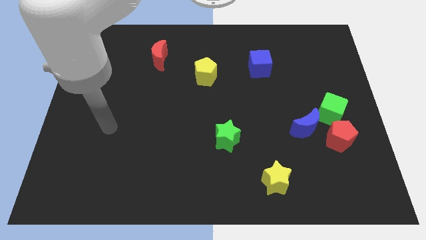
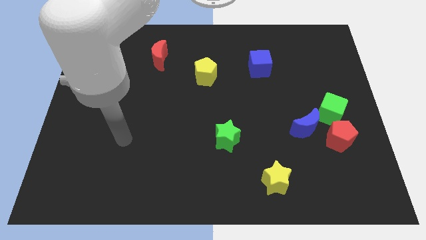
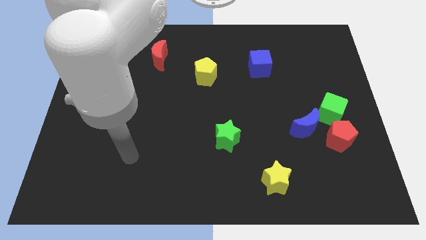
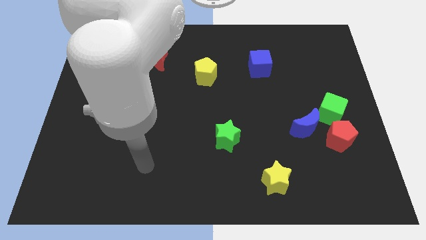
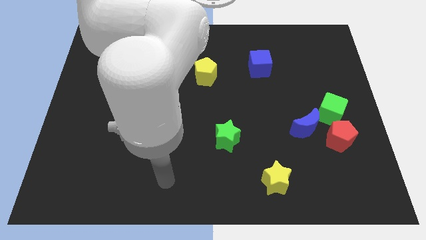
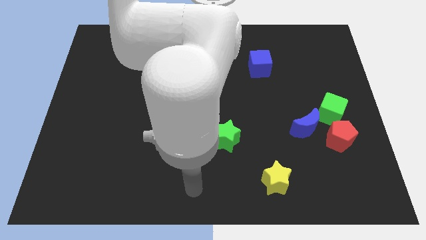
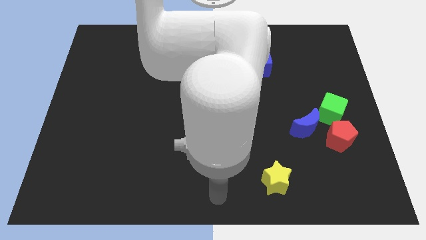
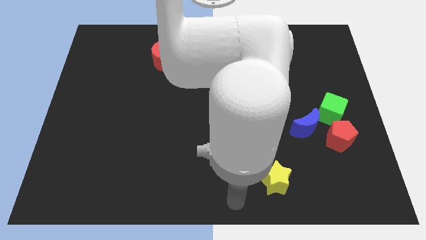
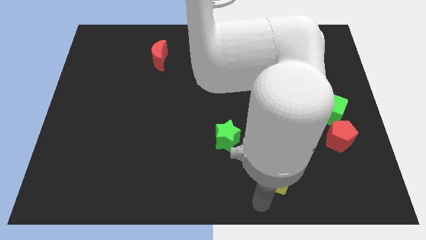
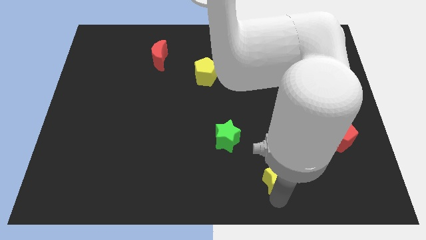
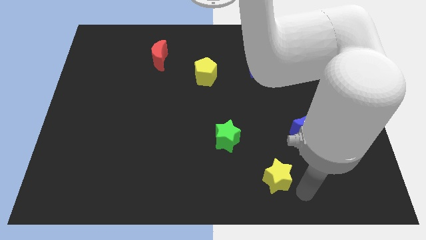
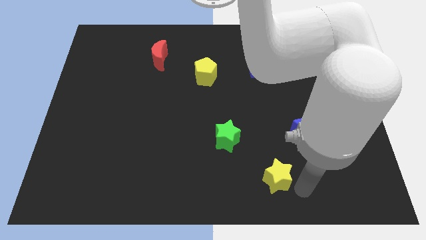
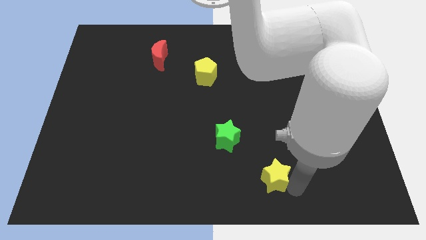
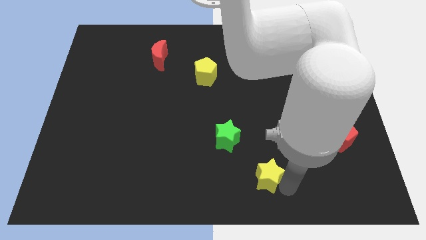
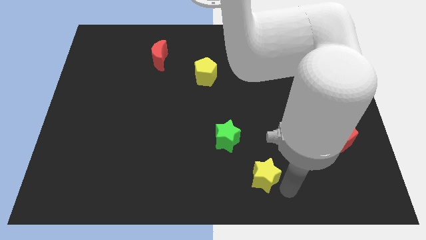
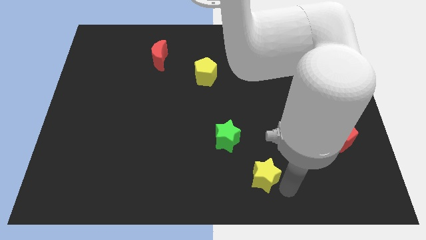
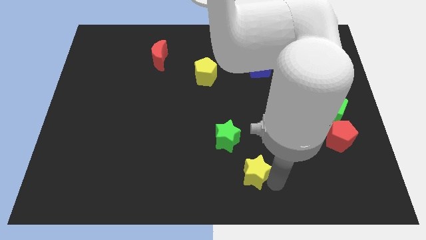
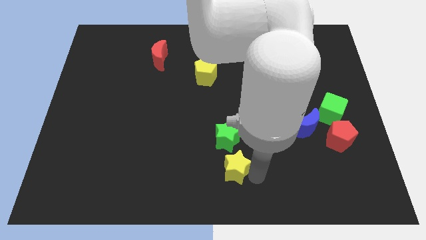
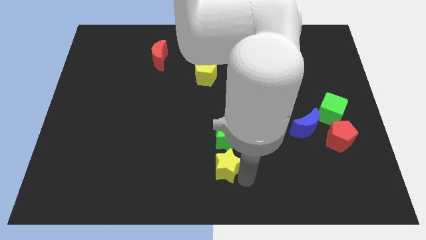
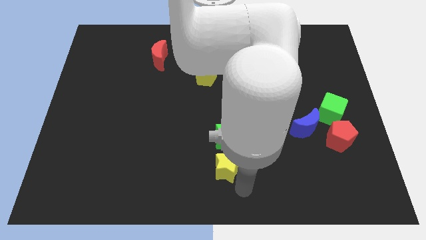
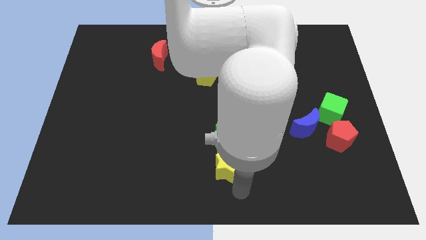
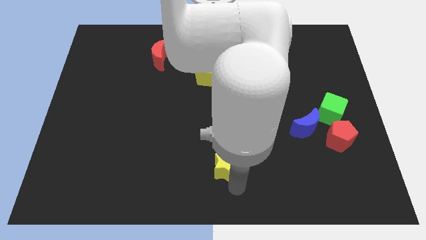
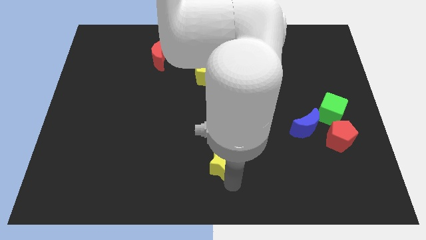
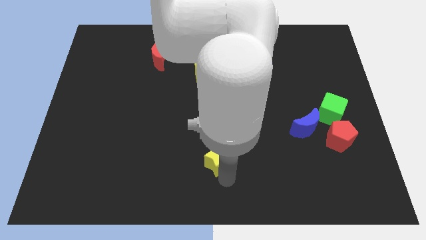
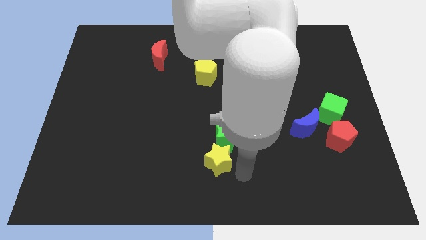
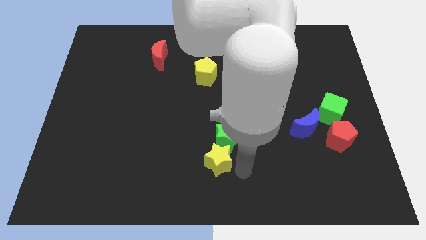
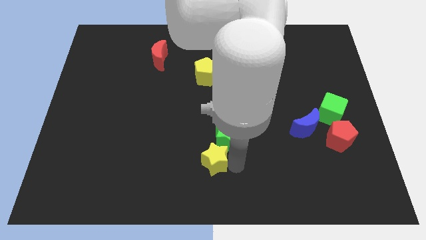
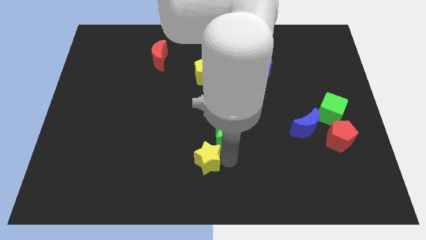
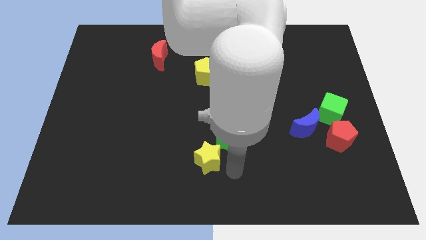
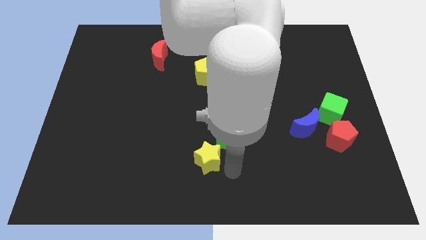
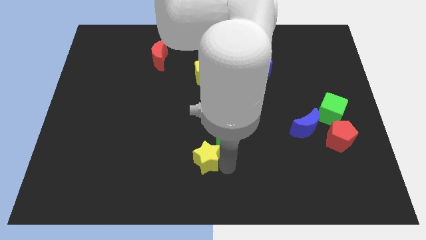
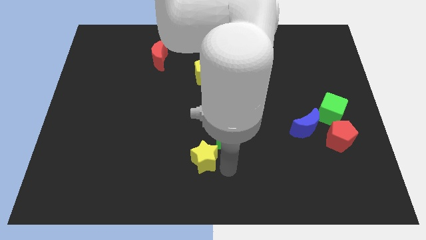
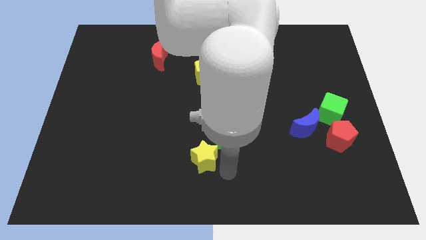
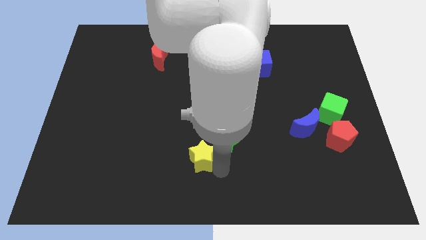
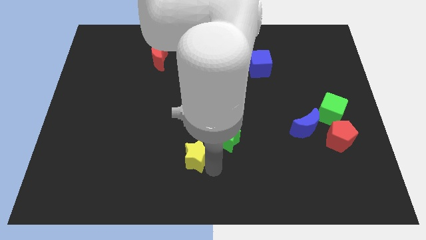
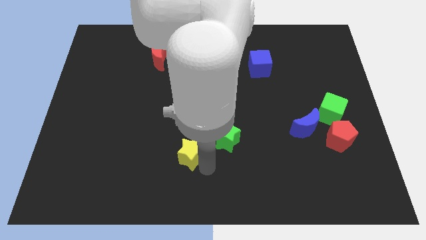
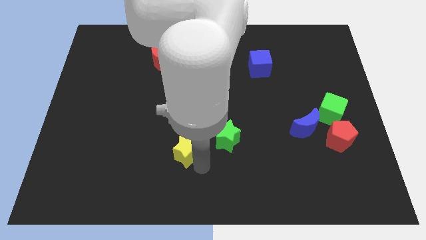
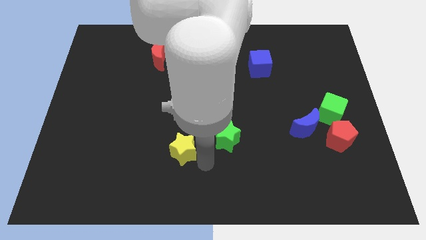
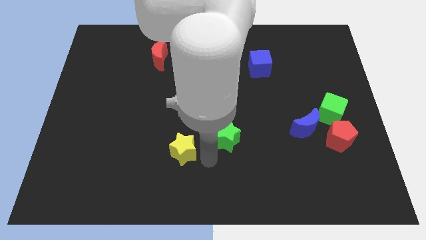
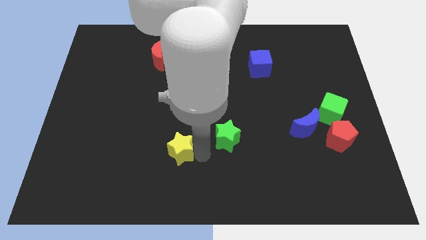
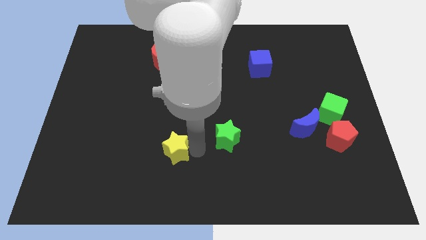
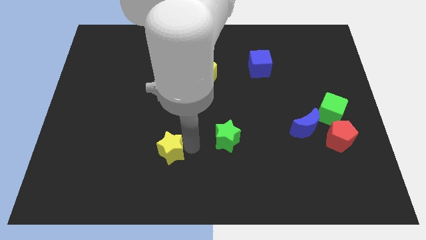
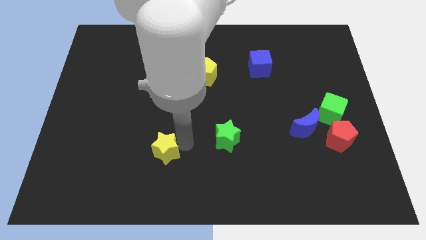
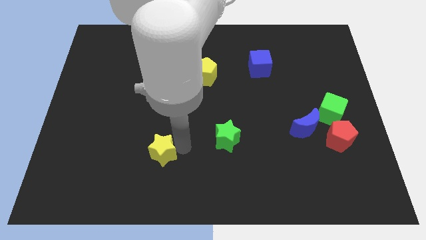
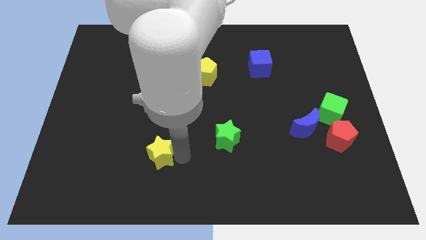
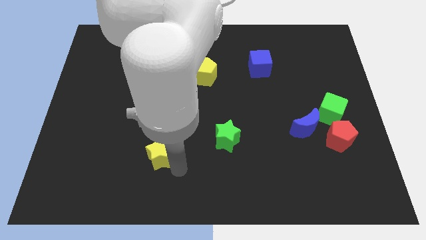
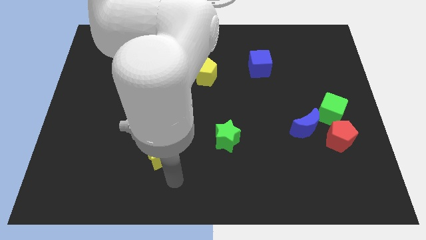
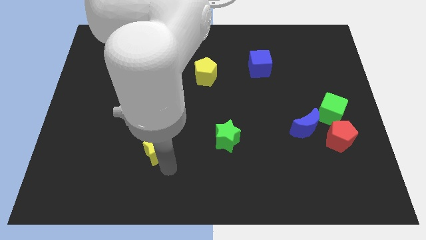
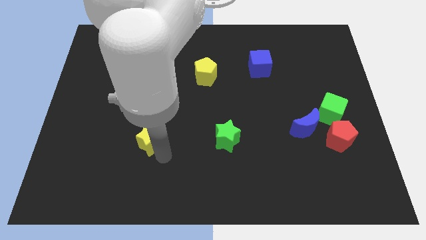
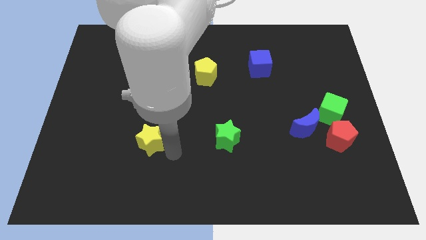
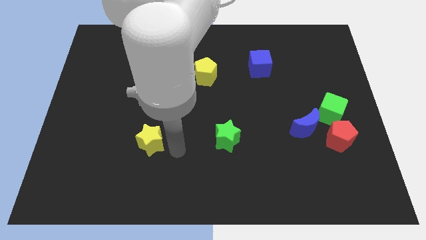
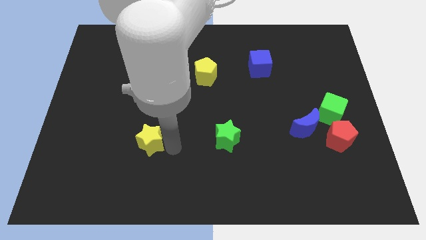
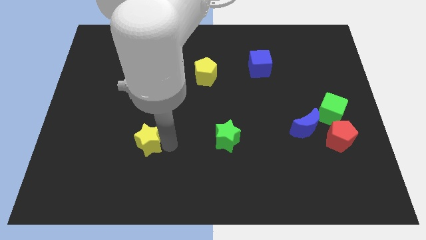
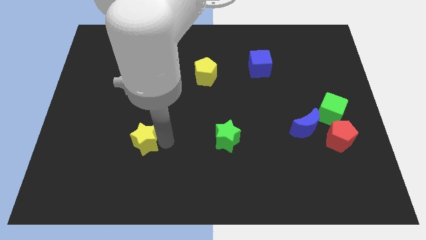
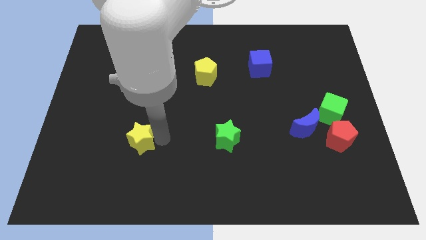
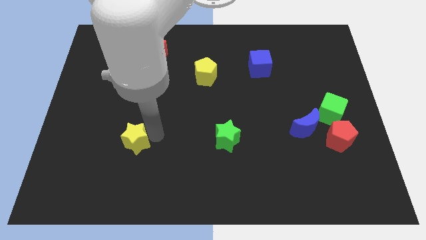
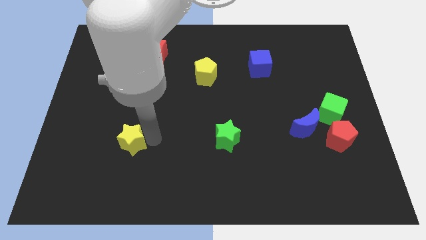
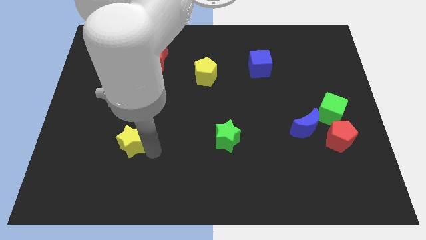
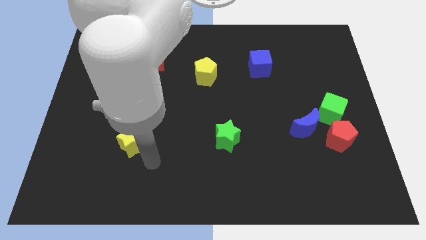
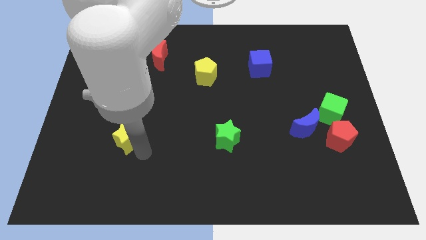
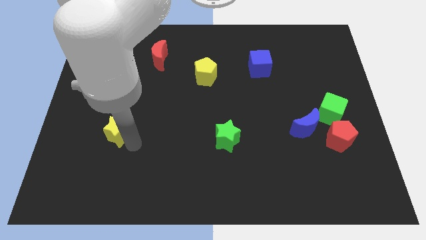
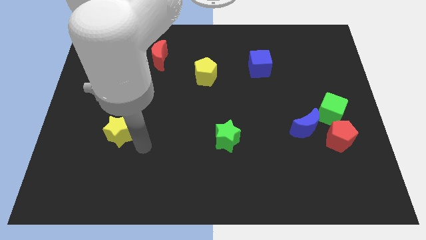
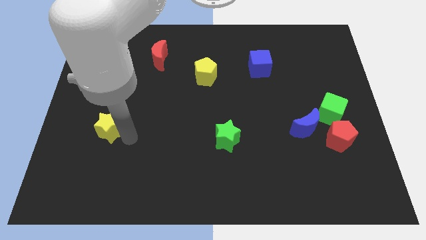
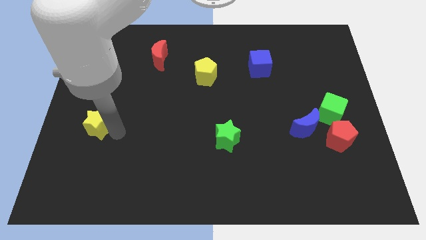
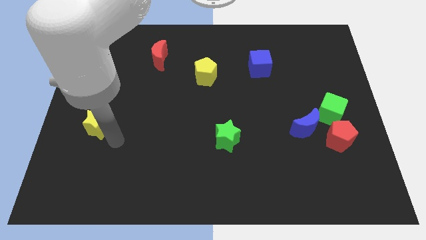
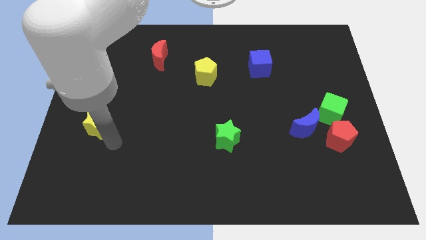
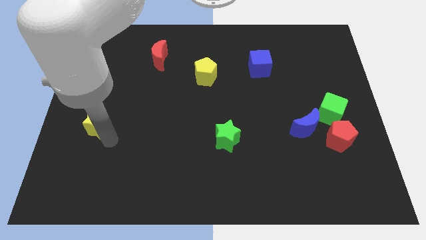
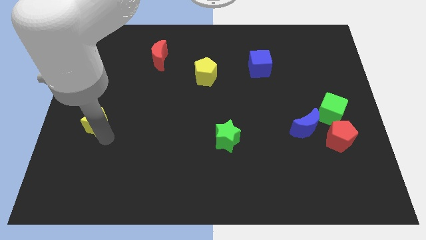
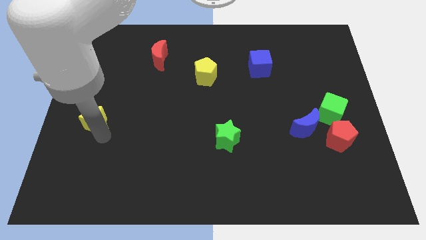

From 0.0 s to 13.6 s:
move the yellow star to the left side
